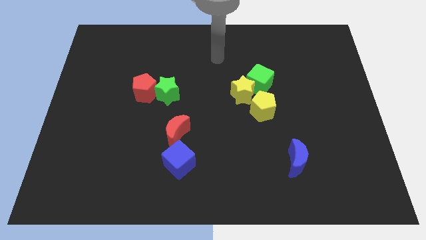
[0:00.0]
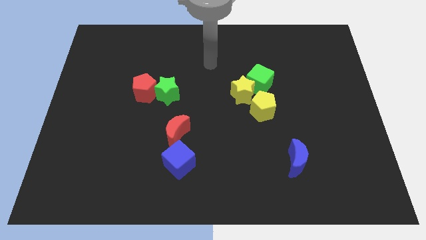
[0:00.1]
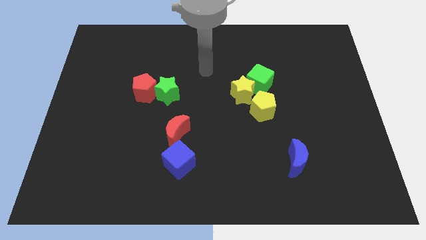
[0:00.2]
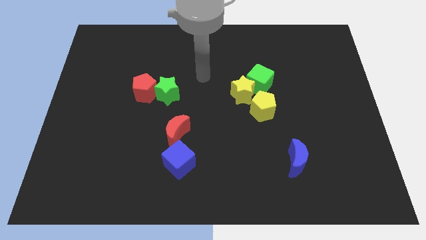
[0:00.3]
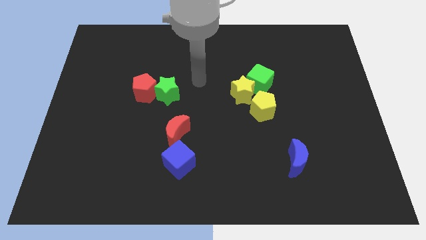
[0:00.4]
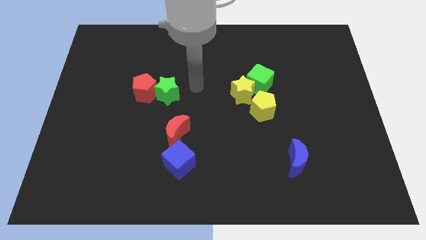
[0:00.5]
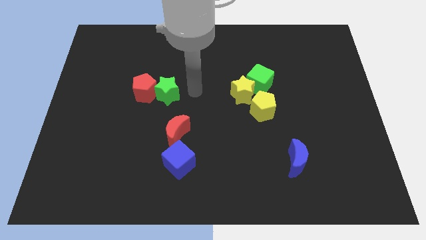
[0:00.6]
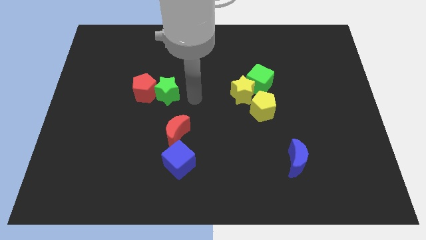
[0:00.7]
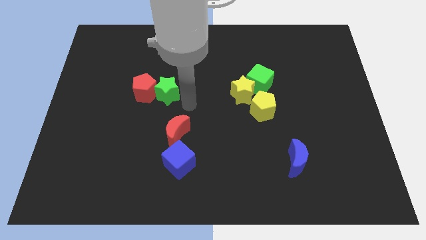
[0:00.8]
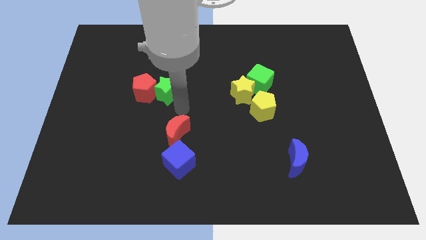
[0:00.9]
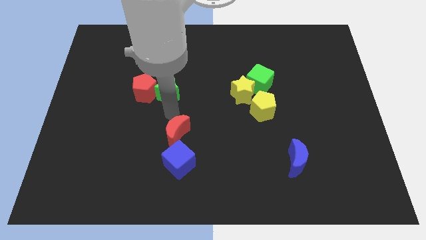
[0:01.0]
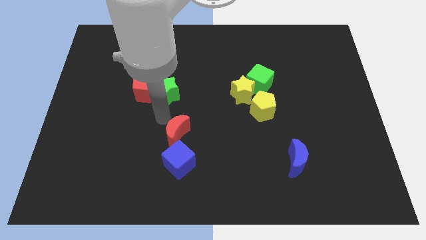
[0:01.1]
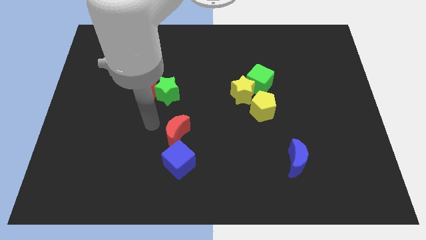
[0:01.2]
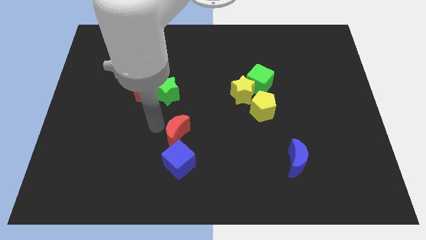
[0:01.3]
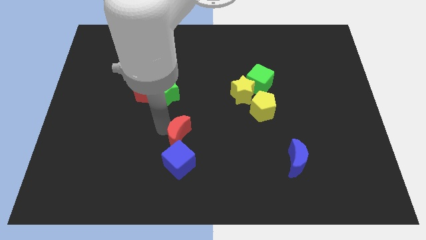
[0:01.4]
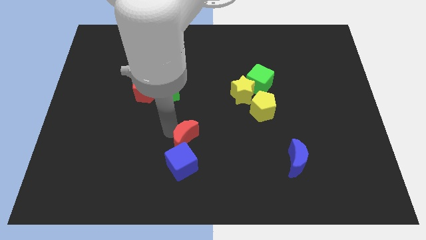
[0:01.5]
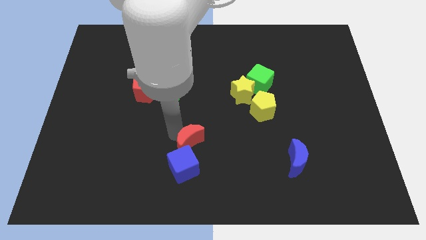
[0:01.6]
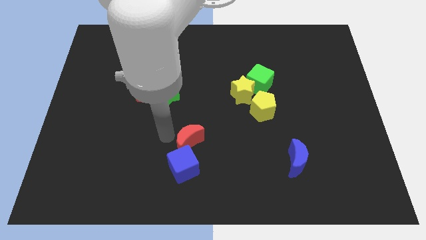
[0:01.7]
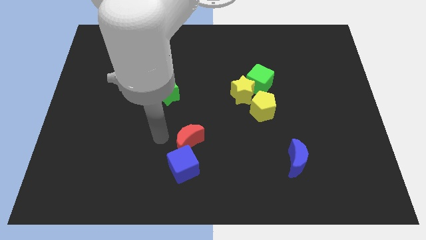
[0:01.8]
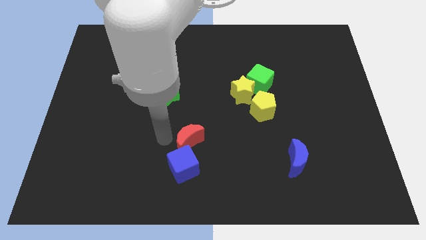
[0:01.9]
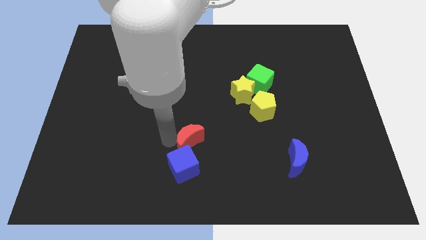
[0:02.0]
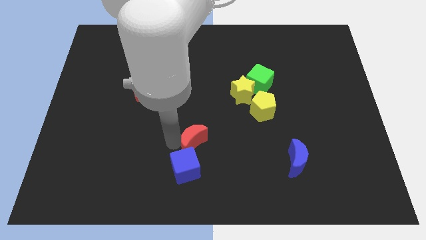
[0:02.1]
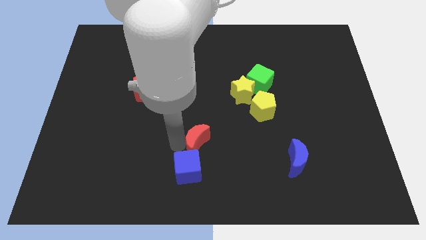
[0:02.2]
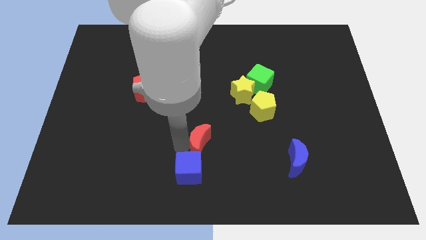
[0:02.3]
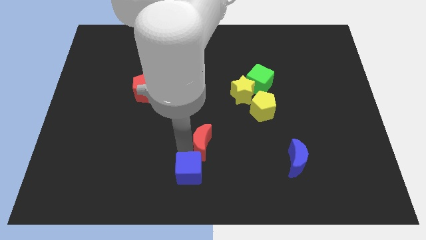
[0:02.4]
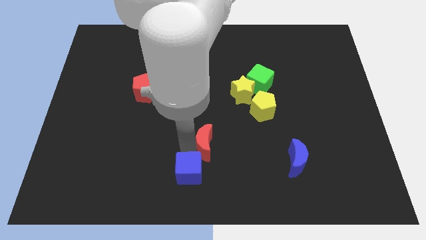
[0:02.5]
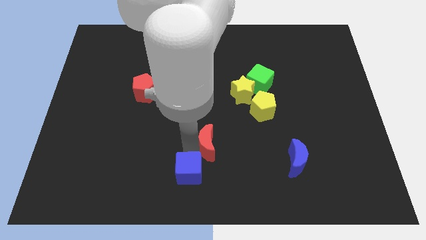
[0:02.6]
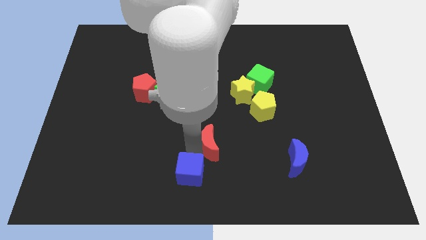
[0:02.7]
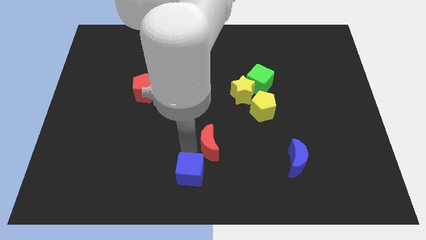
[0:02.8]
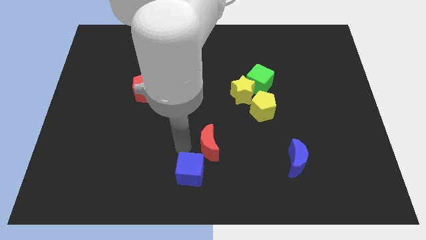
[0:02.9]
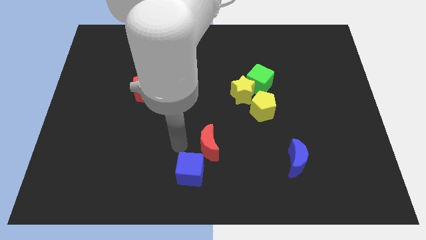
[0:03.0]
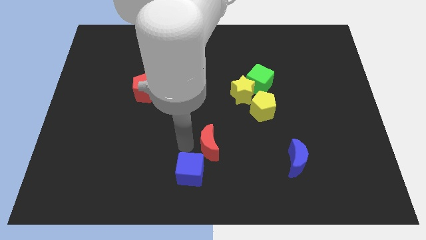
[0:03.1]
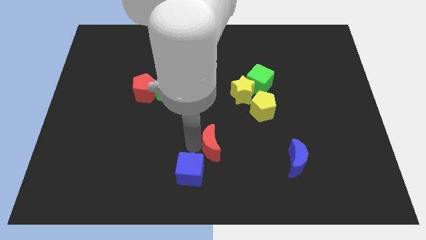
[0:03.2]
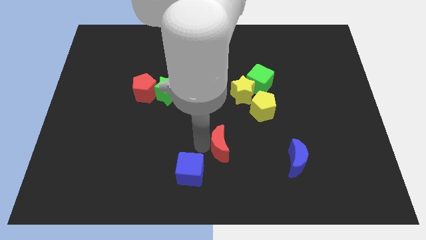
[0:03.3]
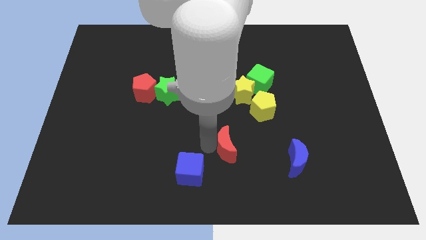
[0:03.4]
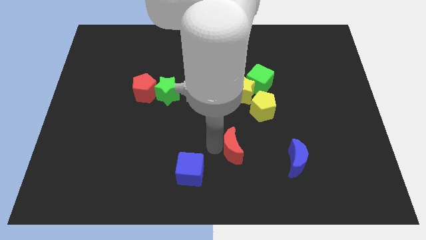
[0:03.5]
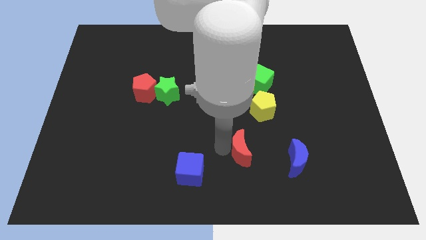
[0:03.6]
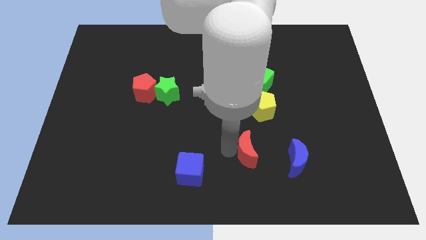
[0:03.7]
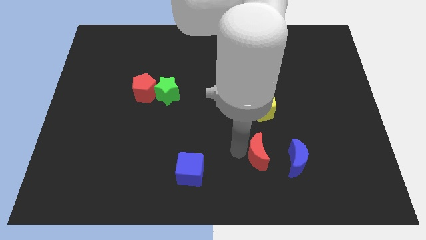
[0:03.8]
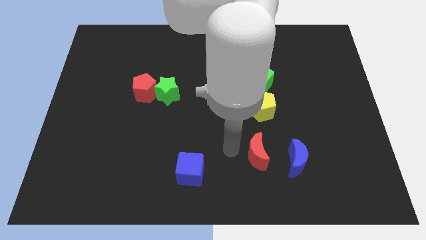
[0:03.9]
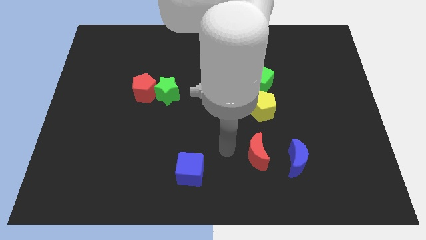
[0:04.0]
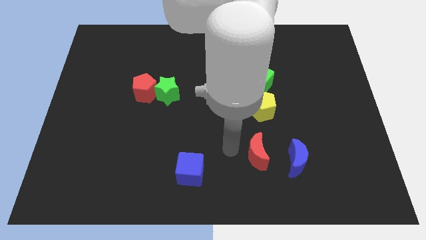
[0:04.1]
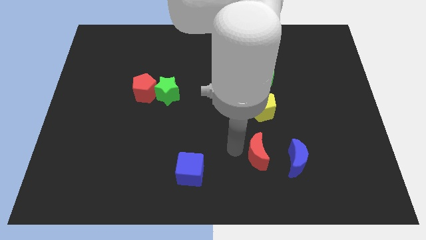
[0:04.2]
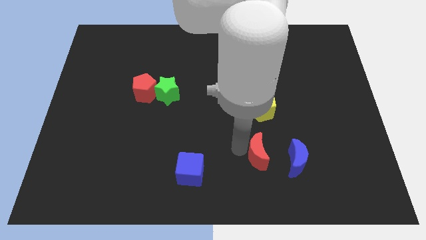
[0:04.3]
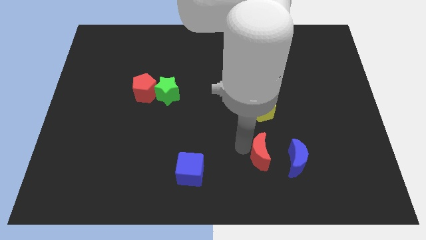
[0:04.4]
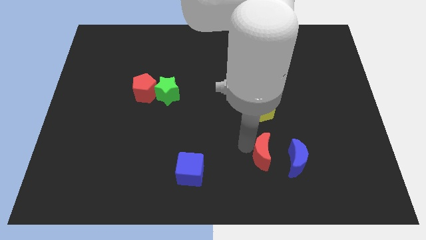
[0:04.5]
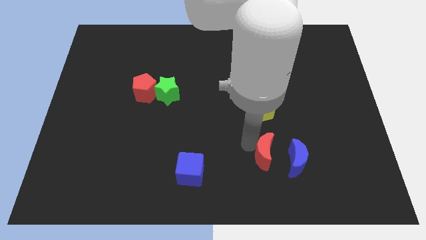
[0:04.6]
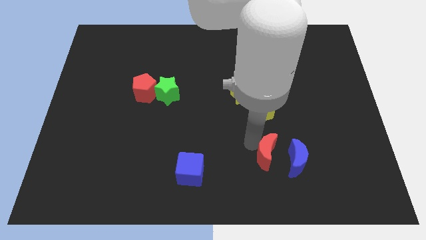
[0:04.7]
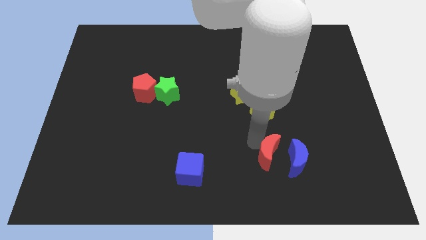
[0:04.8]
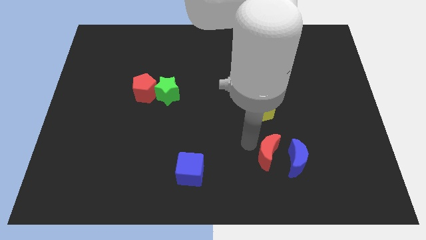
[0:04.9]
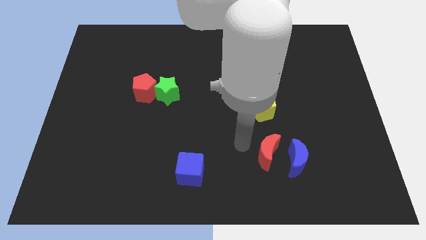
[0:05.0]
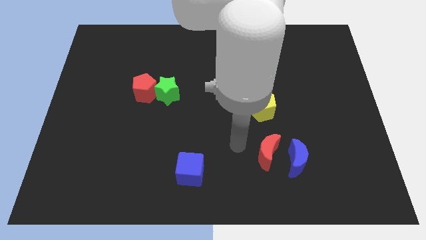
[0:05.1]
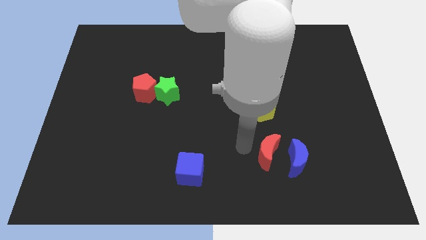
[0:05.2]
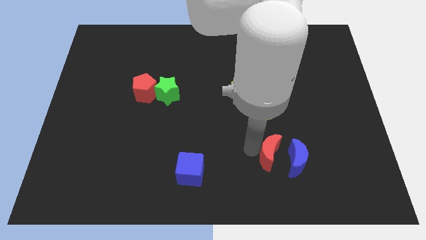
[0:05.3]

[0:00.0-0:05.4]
push the red moon next to the blue moon

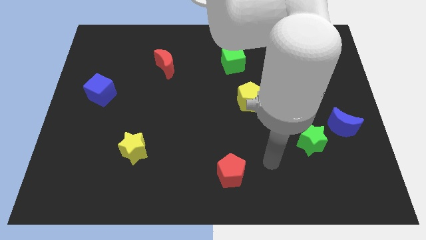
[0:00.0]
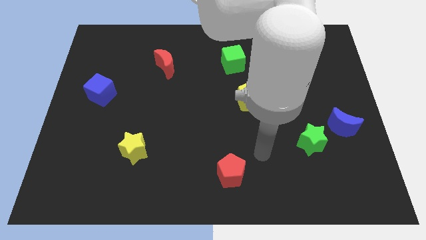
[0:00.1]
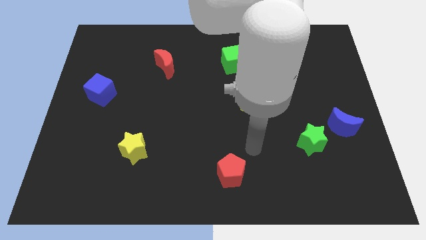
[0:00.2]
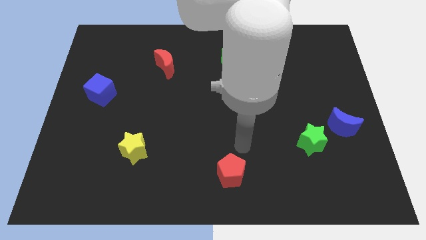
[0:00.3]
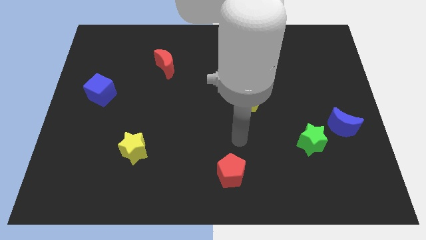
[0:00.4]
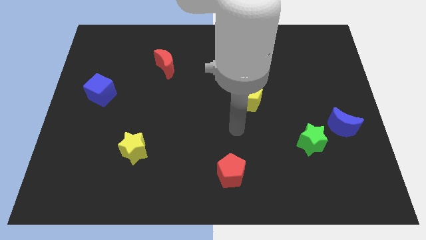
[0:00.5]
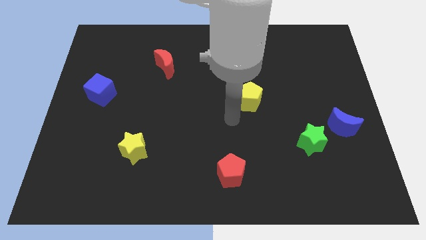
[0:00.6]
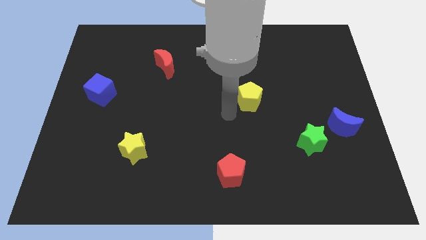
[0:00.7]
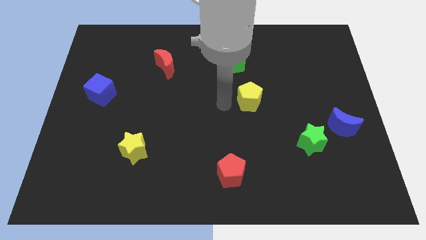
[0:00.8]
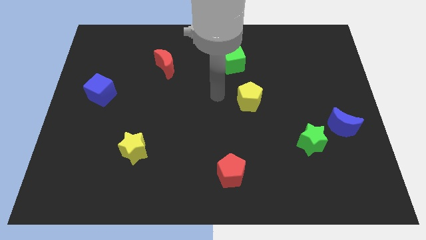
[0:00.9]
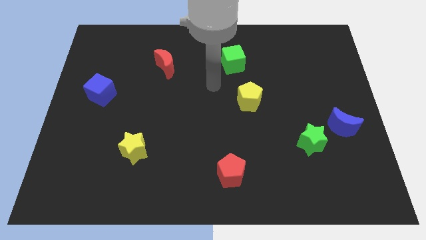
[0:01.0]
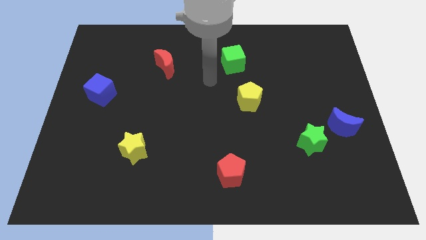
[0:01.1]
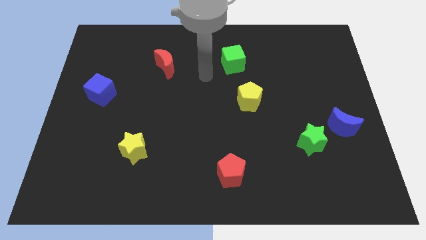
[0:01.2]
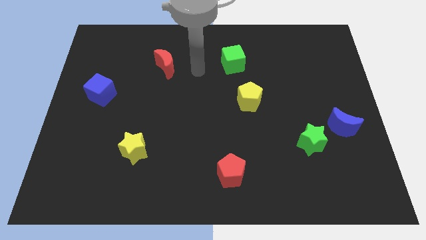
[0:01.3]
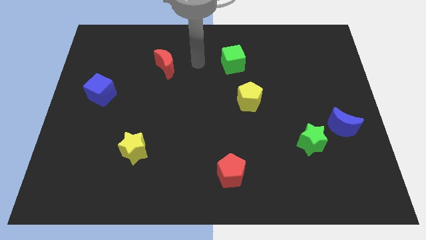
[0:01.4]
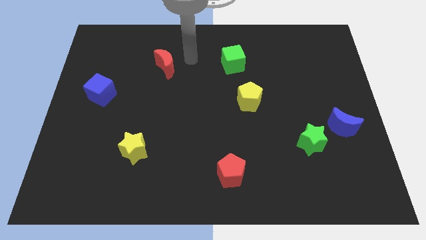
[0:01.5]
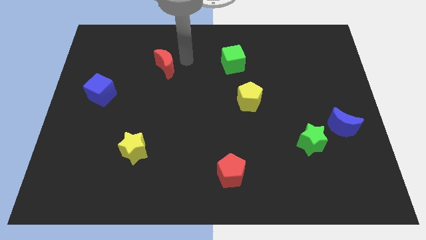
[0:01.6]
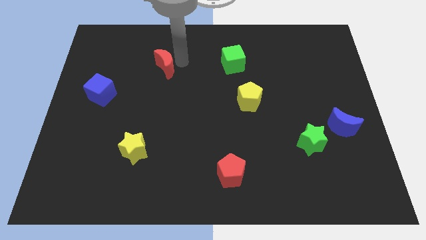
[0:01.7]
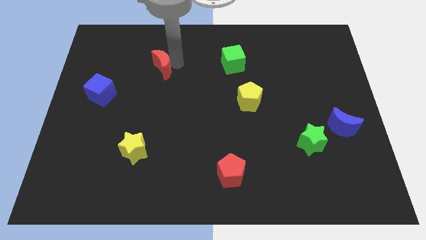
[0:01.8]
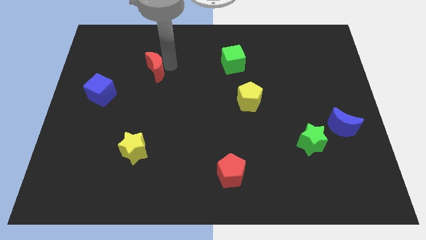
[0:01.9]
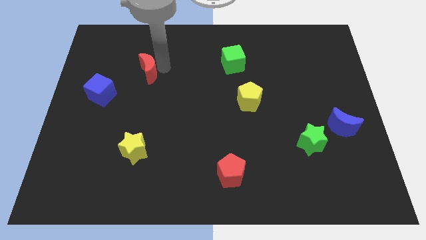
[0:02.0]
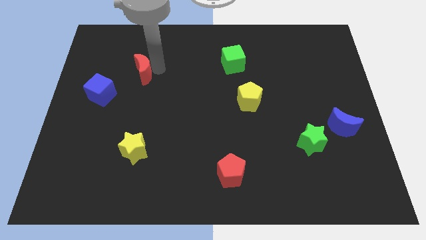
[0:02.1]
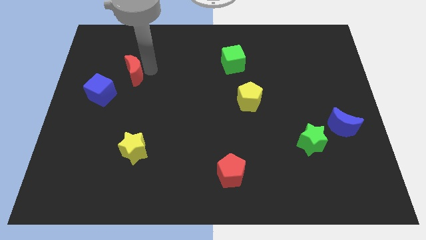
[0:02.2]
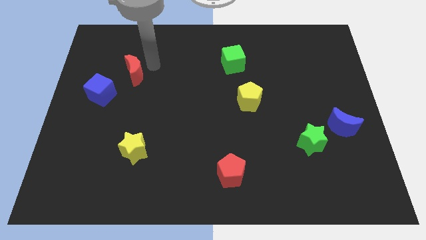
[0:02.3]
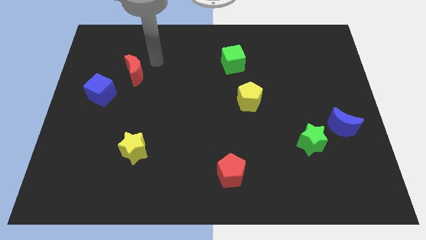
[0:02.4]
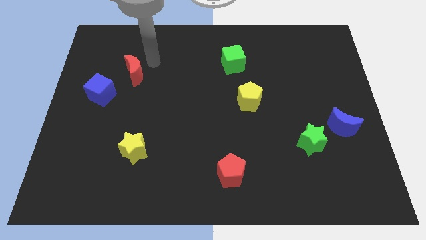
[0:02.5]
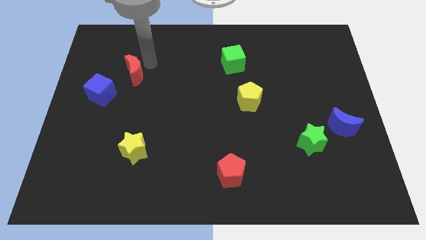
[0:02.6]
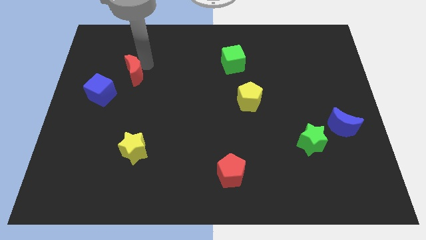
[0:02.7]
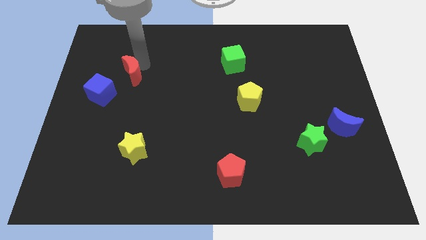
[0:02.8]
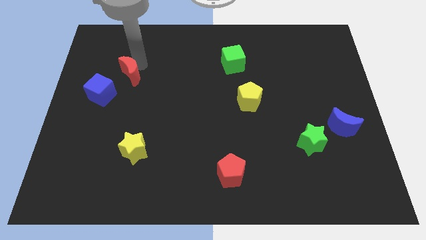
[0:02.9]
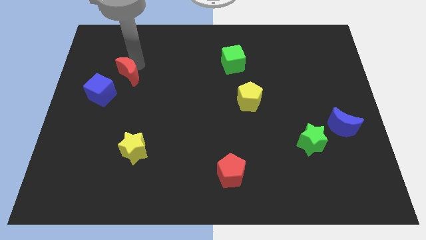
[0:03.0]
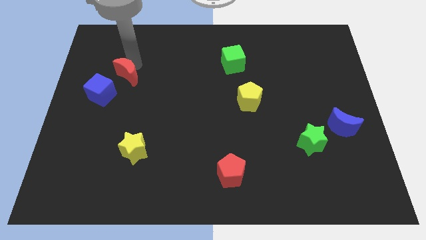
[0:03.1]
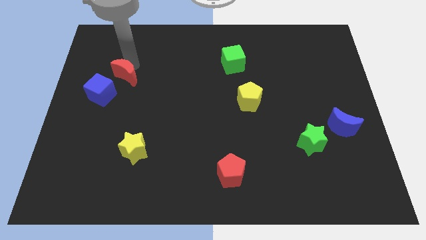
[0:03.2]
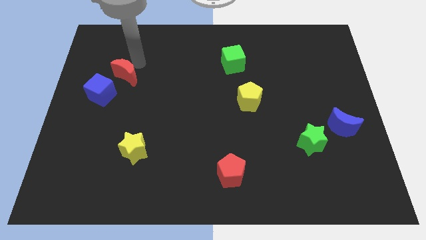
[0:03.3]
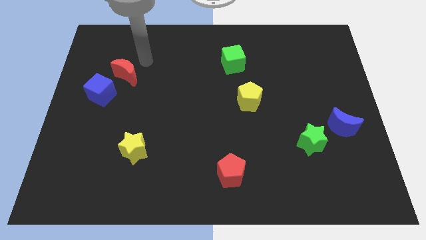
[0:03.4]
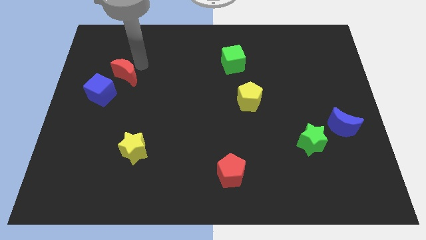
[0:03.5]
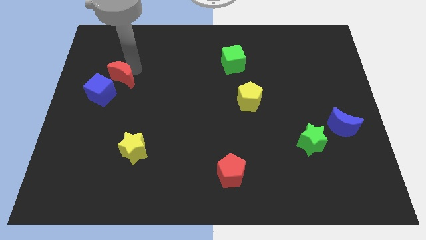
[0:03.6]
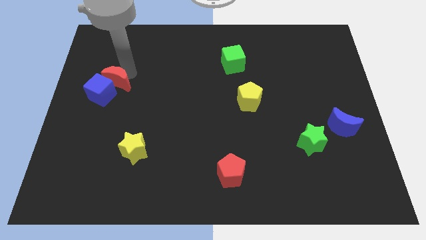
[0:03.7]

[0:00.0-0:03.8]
push the red moon close to the blue cube
